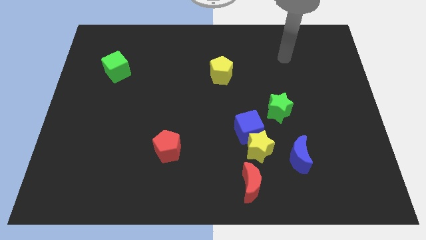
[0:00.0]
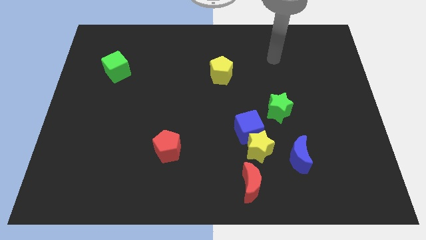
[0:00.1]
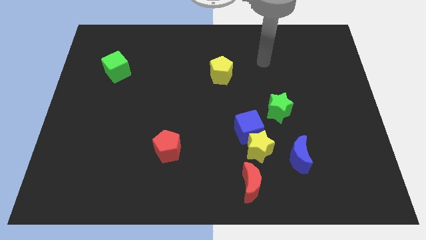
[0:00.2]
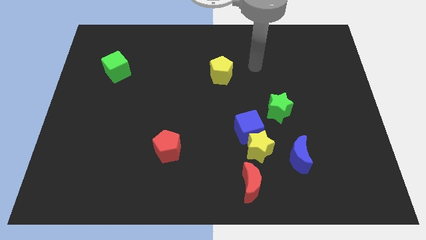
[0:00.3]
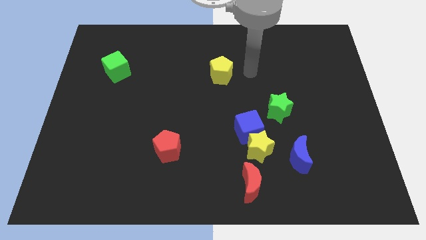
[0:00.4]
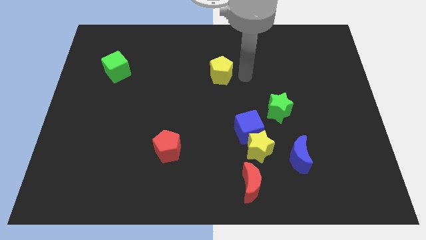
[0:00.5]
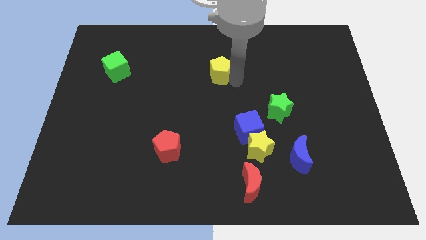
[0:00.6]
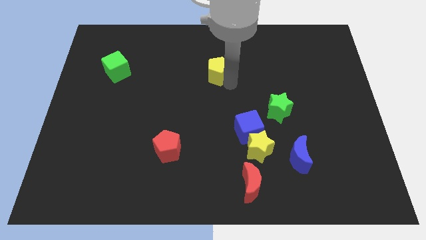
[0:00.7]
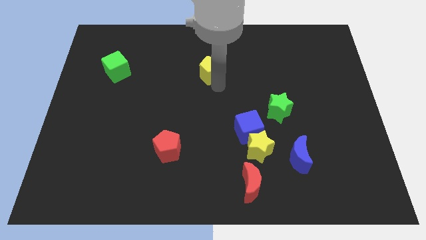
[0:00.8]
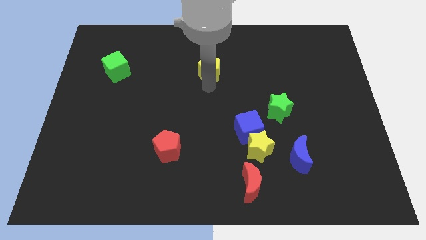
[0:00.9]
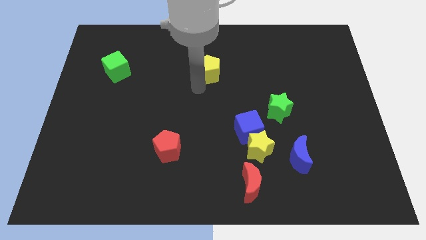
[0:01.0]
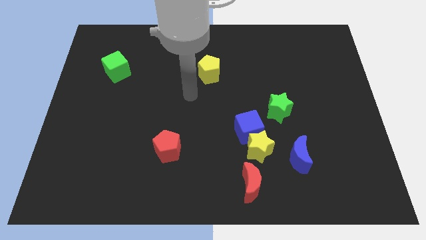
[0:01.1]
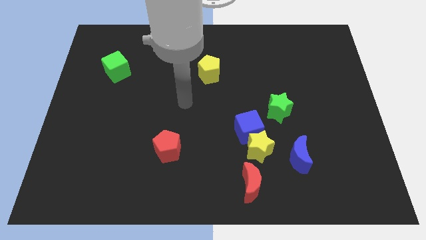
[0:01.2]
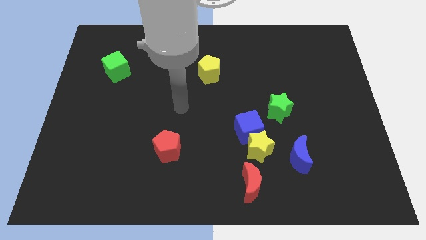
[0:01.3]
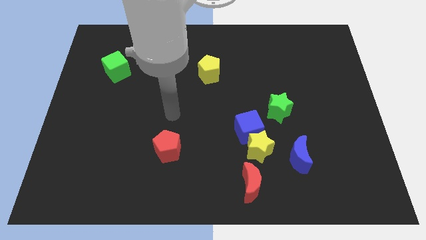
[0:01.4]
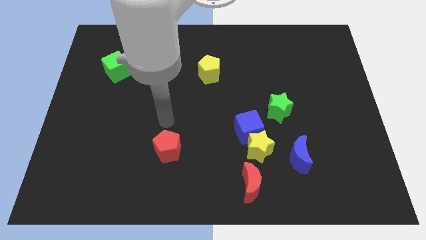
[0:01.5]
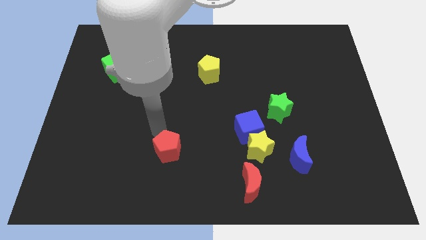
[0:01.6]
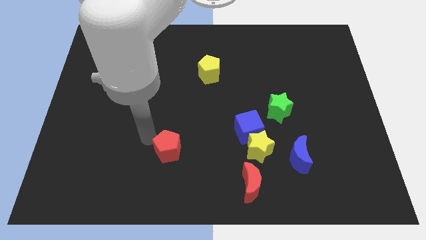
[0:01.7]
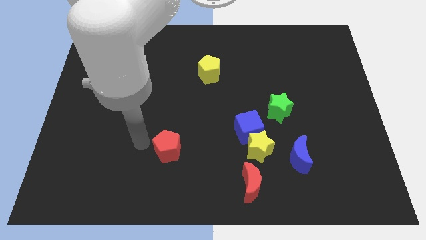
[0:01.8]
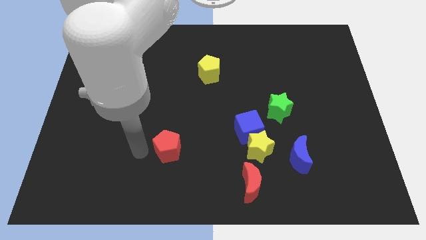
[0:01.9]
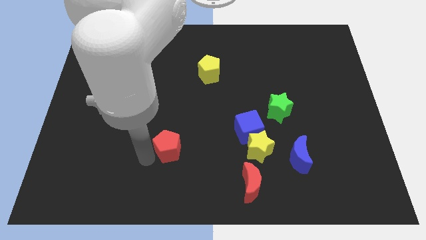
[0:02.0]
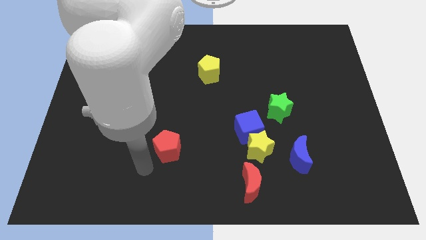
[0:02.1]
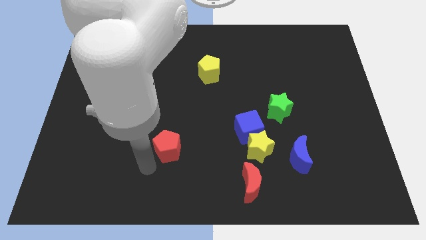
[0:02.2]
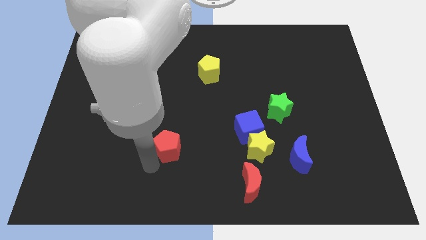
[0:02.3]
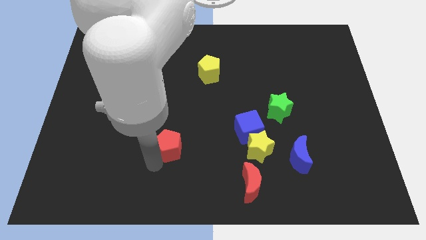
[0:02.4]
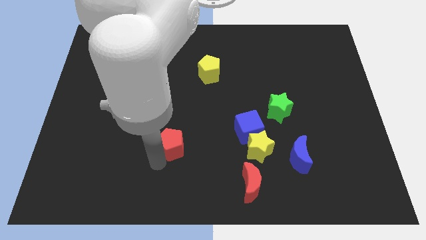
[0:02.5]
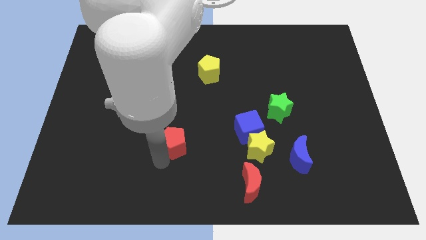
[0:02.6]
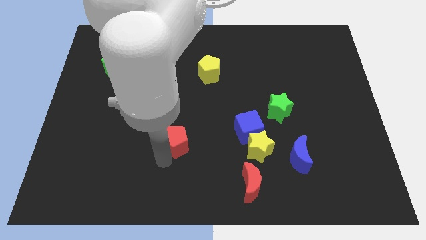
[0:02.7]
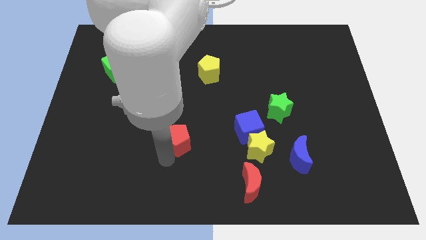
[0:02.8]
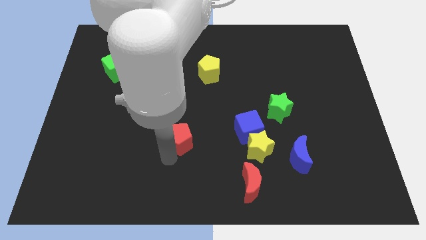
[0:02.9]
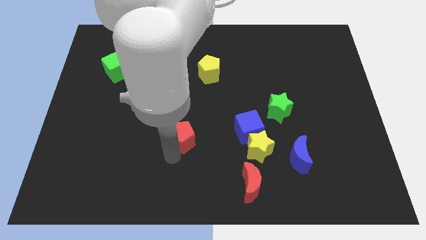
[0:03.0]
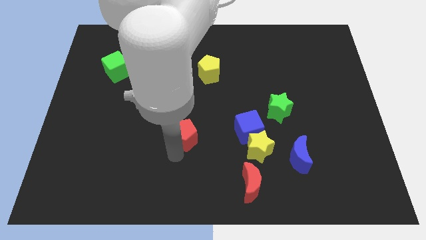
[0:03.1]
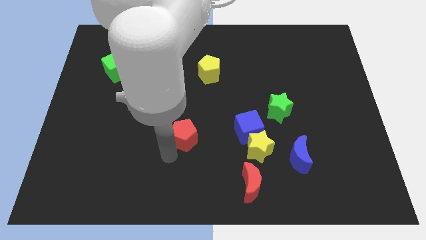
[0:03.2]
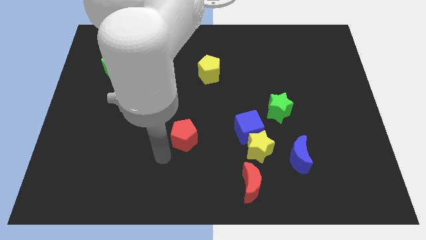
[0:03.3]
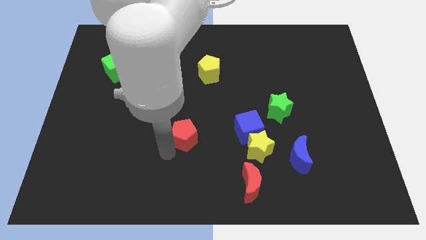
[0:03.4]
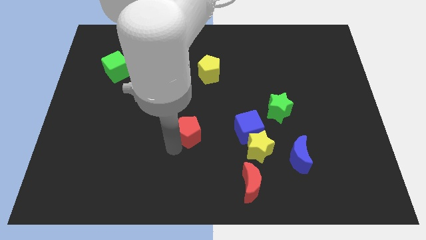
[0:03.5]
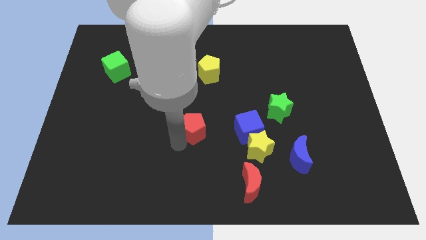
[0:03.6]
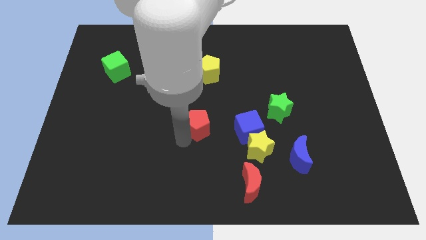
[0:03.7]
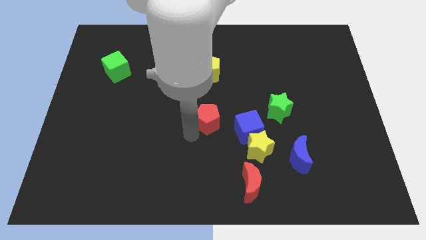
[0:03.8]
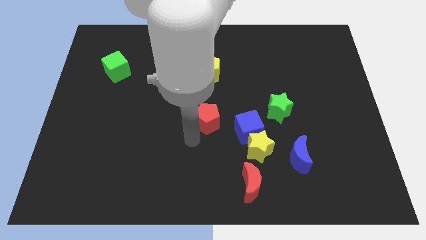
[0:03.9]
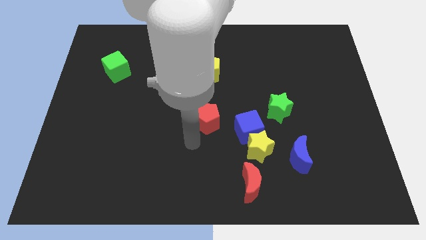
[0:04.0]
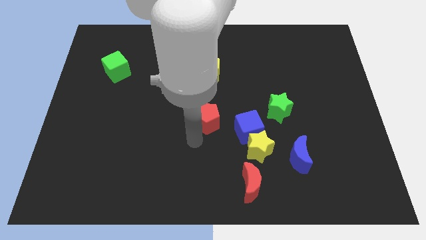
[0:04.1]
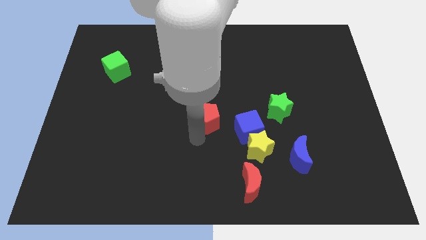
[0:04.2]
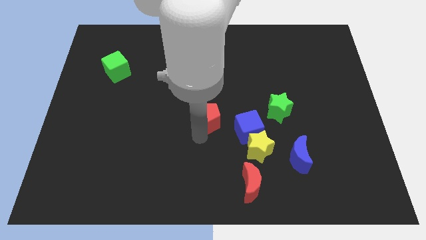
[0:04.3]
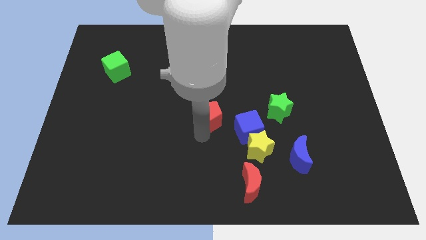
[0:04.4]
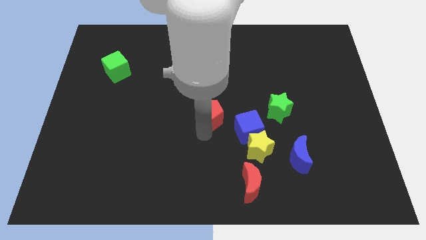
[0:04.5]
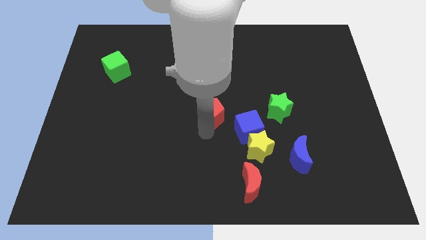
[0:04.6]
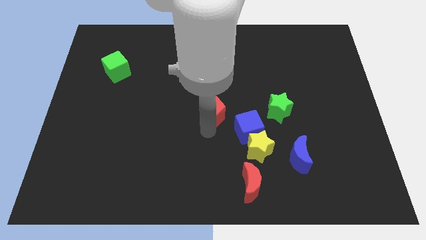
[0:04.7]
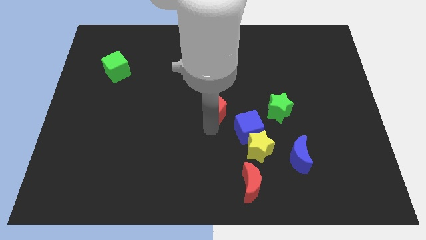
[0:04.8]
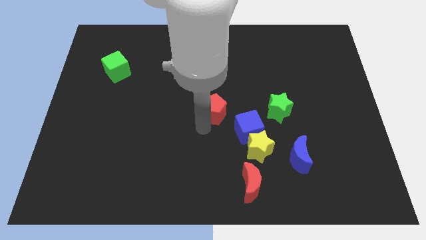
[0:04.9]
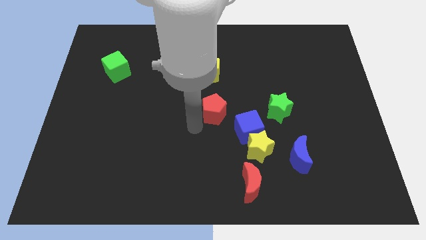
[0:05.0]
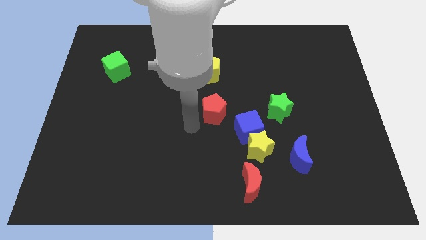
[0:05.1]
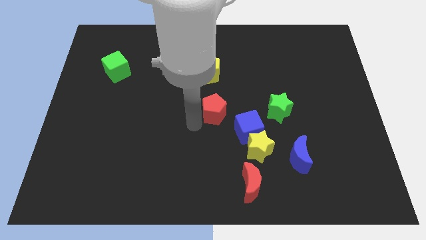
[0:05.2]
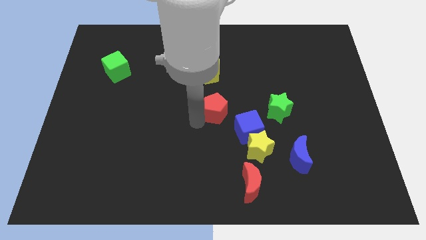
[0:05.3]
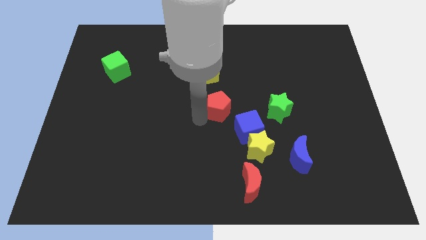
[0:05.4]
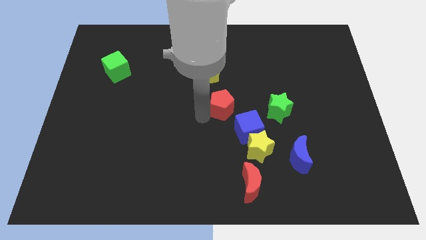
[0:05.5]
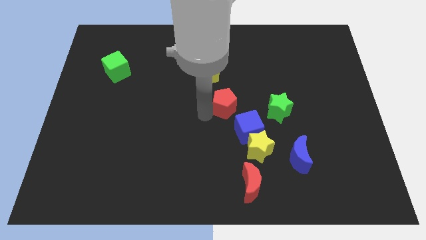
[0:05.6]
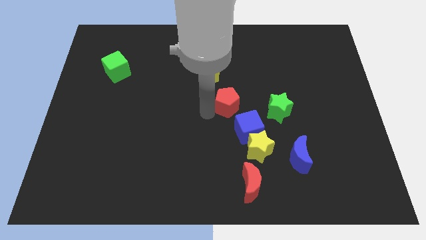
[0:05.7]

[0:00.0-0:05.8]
push the red pentagon to the top side of the blue cube

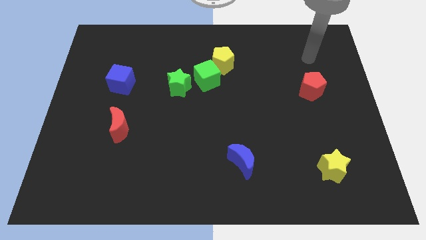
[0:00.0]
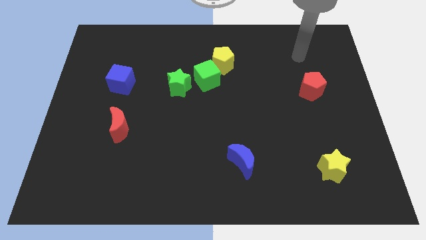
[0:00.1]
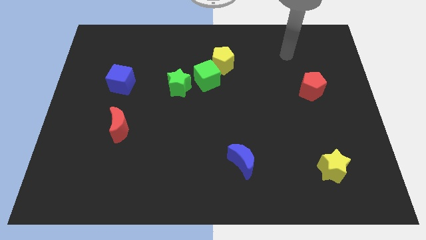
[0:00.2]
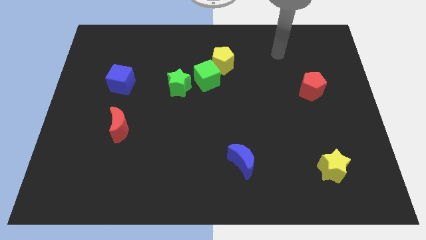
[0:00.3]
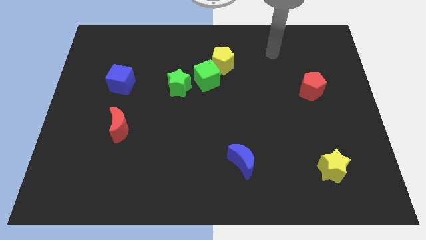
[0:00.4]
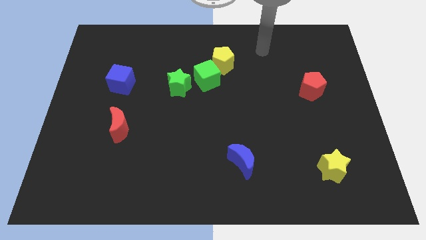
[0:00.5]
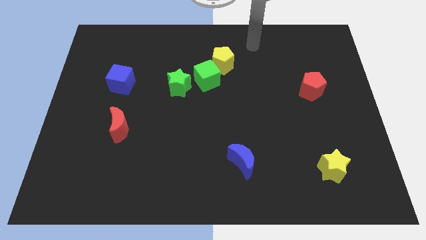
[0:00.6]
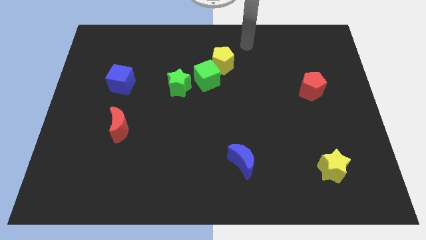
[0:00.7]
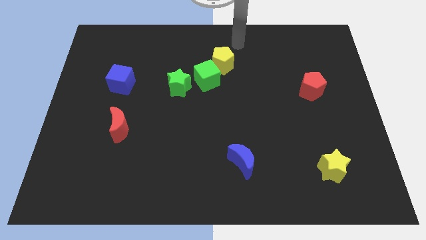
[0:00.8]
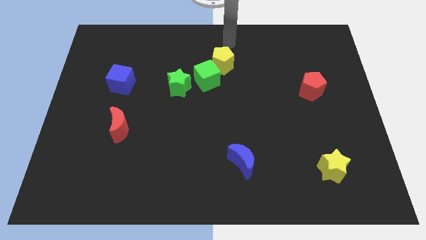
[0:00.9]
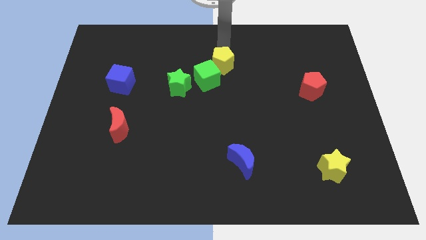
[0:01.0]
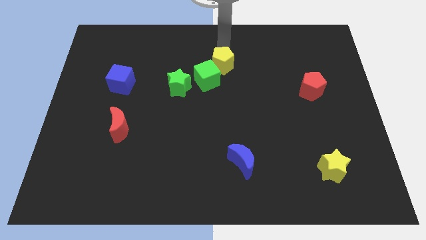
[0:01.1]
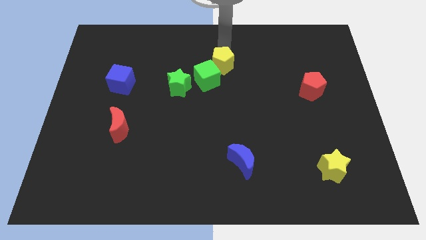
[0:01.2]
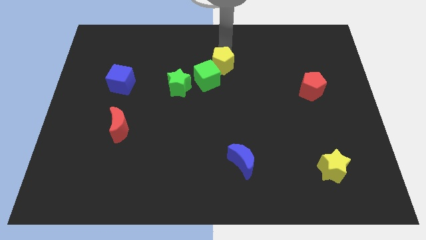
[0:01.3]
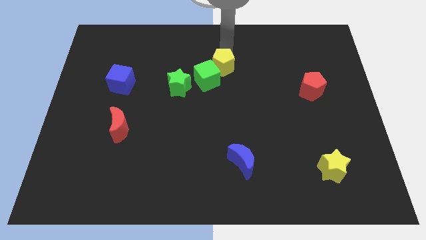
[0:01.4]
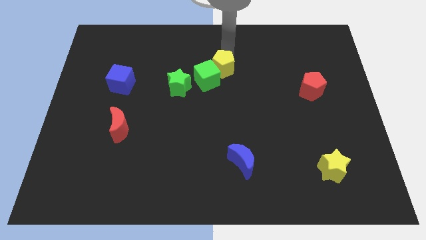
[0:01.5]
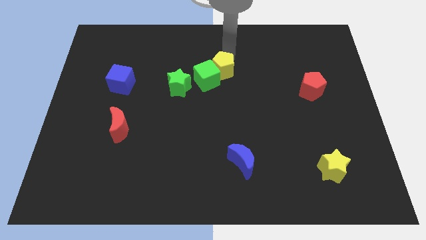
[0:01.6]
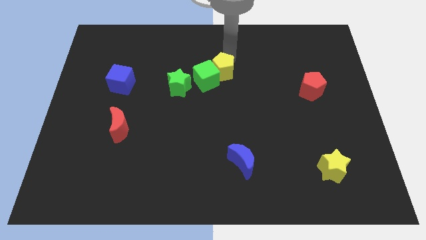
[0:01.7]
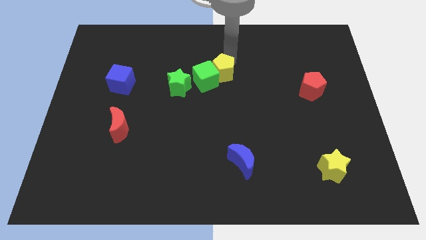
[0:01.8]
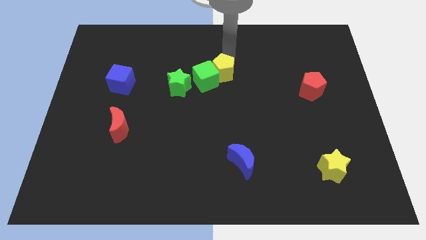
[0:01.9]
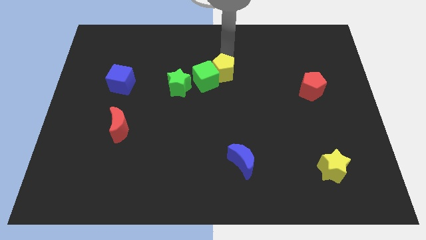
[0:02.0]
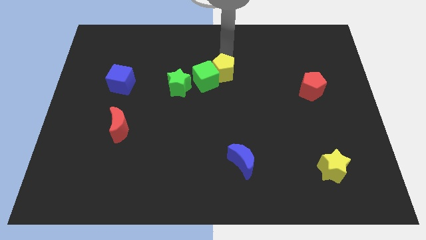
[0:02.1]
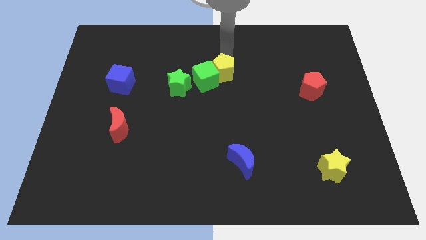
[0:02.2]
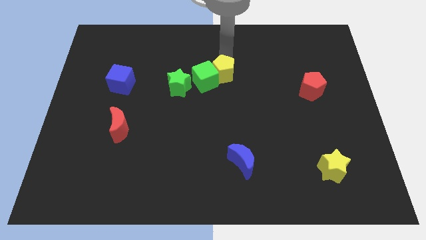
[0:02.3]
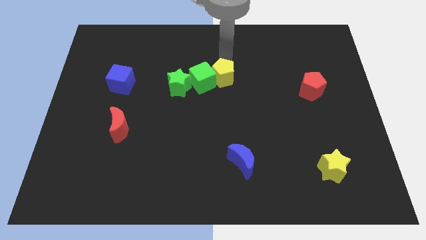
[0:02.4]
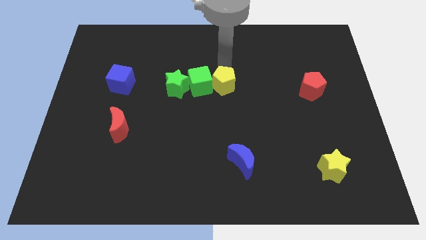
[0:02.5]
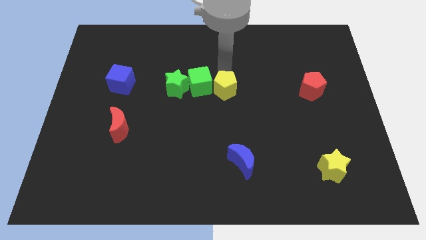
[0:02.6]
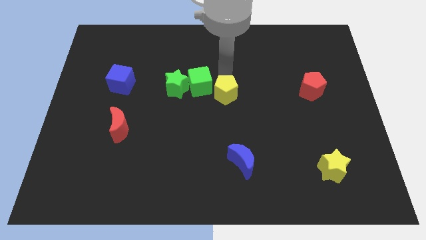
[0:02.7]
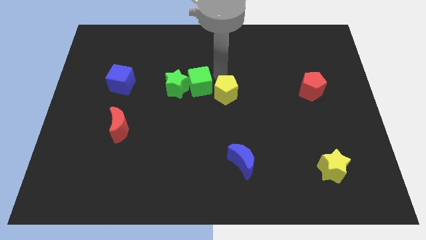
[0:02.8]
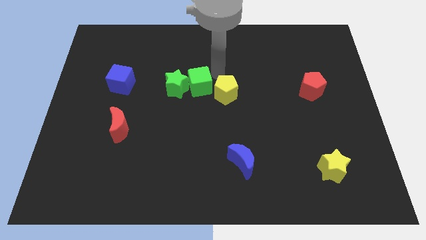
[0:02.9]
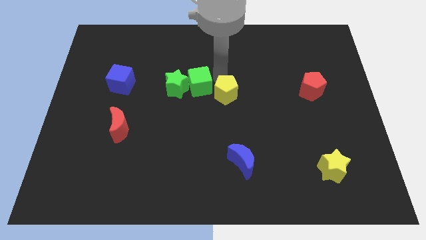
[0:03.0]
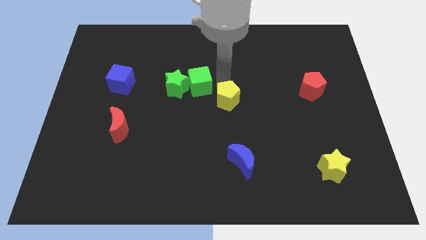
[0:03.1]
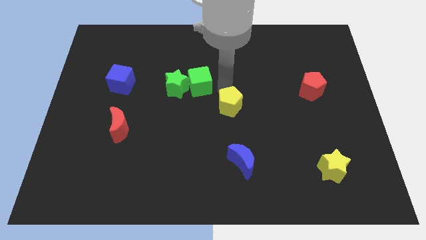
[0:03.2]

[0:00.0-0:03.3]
put the yellow pentagon above the blue moon
